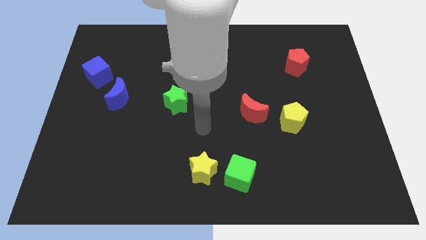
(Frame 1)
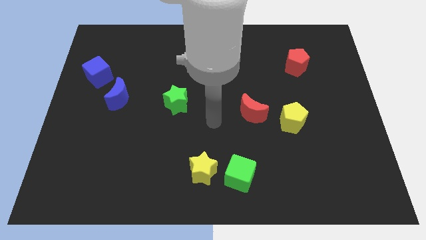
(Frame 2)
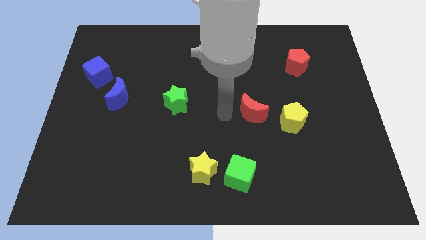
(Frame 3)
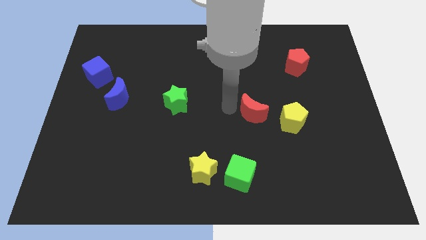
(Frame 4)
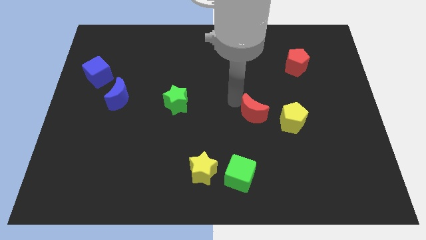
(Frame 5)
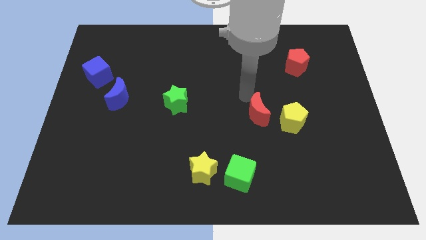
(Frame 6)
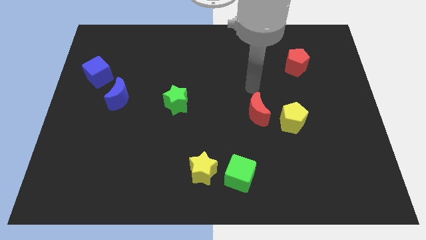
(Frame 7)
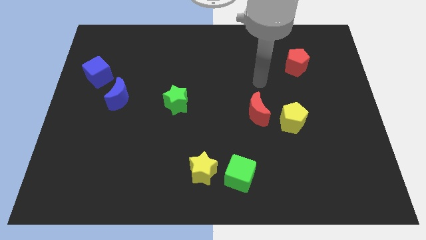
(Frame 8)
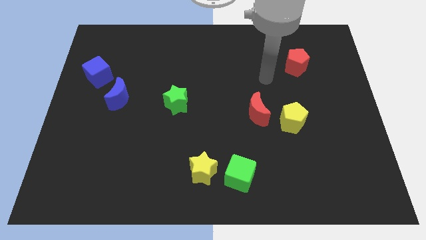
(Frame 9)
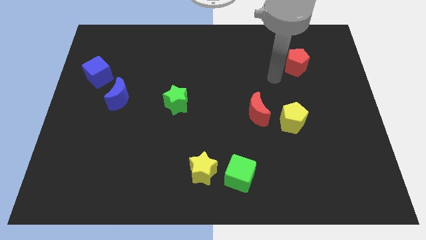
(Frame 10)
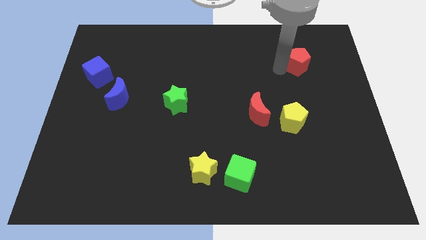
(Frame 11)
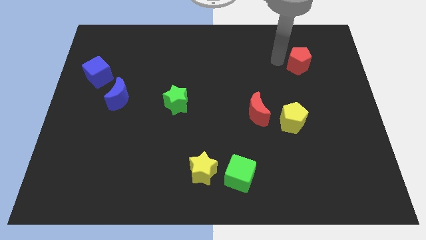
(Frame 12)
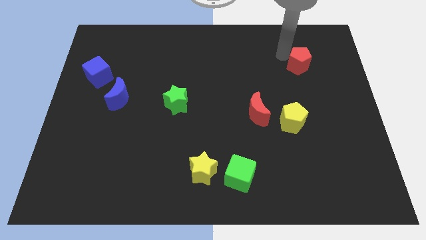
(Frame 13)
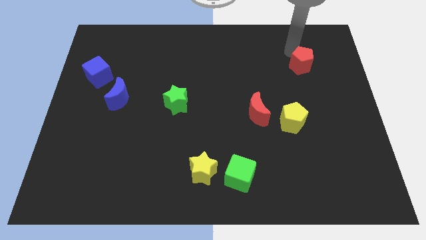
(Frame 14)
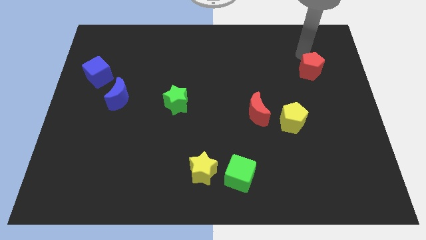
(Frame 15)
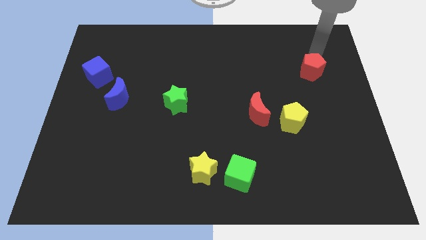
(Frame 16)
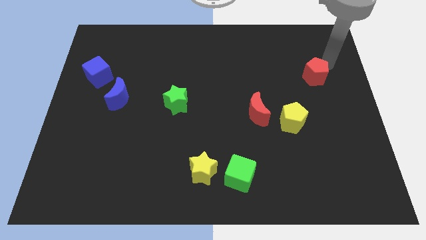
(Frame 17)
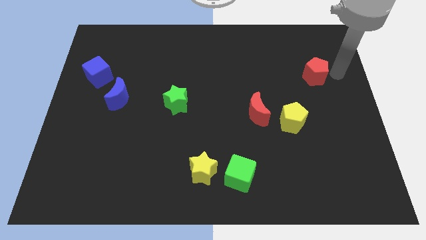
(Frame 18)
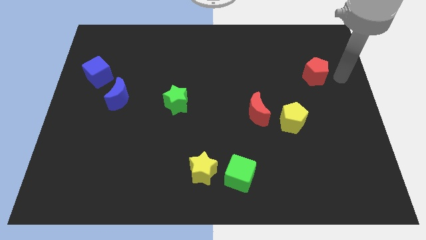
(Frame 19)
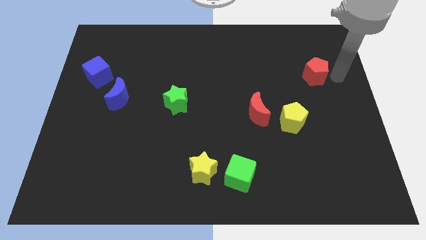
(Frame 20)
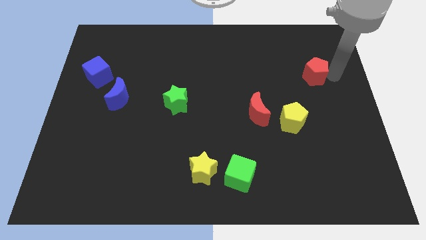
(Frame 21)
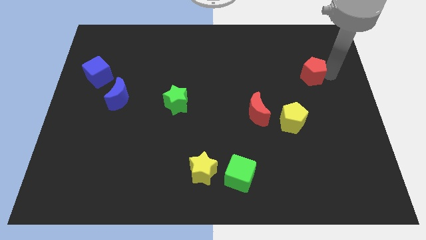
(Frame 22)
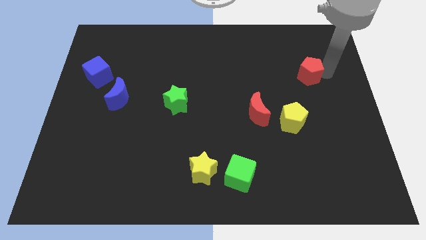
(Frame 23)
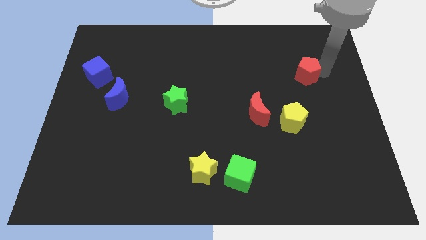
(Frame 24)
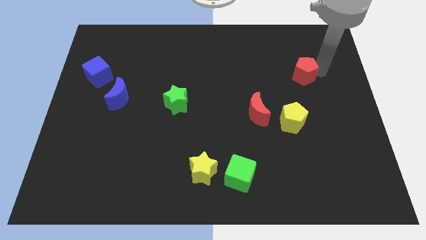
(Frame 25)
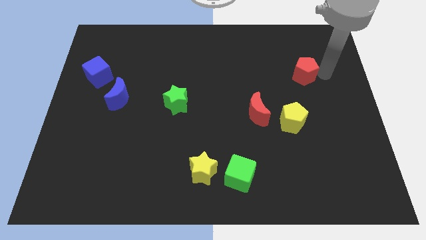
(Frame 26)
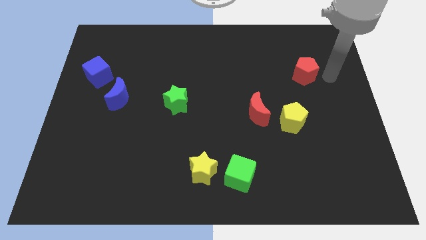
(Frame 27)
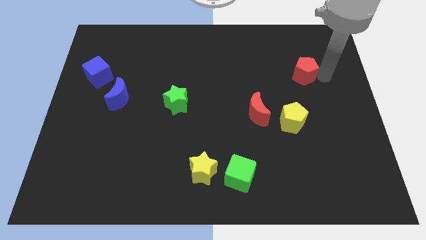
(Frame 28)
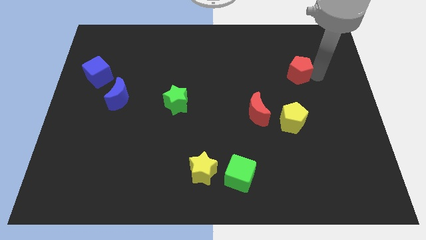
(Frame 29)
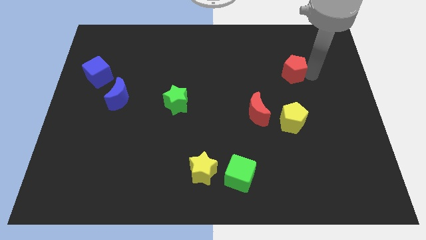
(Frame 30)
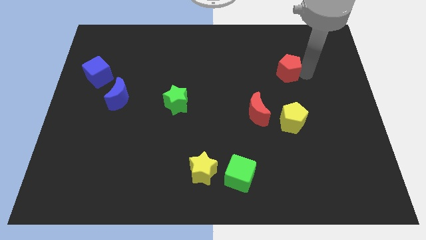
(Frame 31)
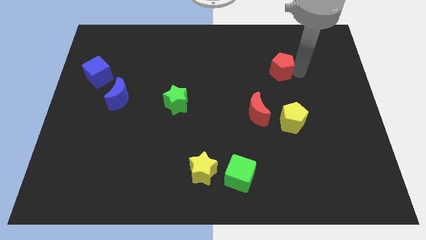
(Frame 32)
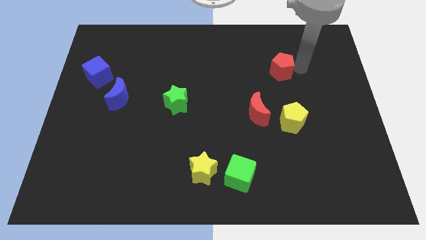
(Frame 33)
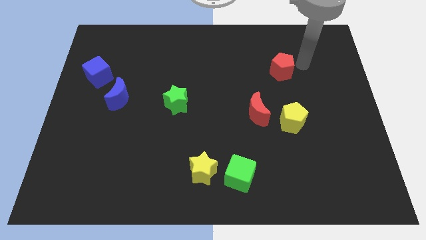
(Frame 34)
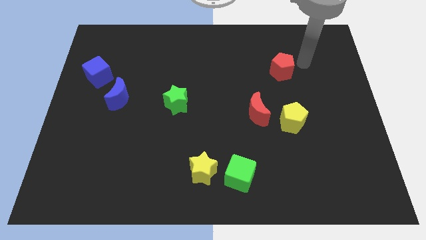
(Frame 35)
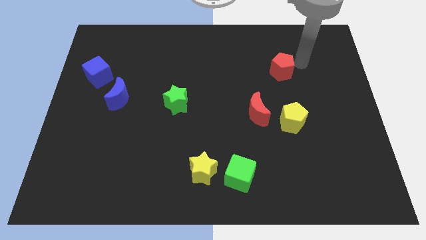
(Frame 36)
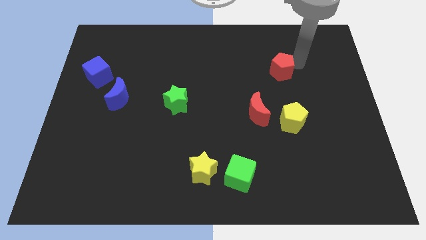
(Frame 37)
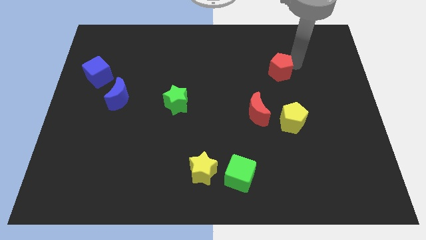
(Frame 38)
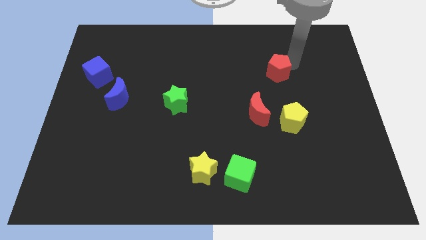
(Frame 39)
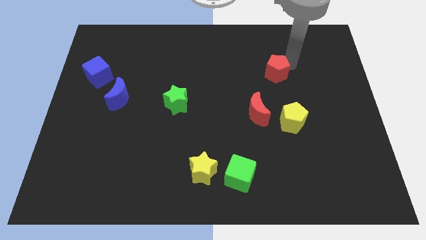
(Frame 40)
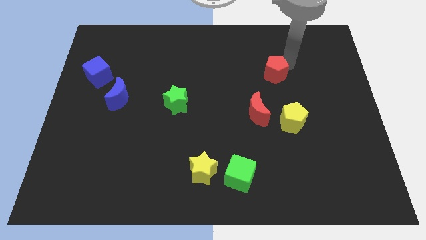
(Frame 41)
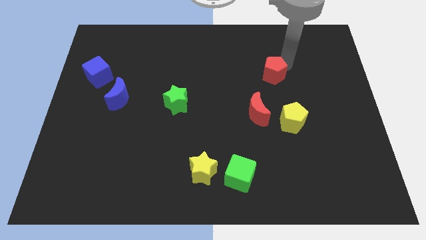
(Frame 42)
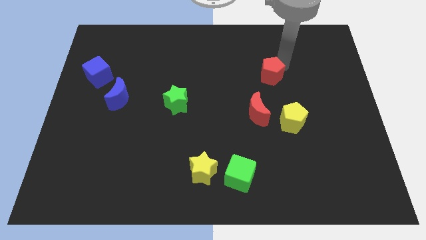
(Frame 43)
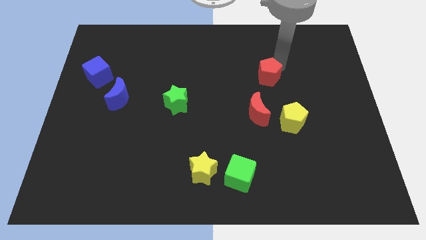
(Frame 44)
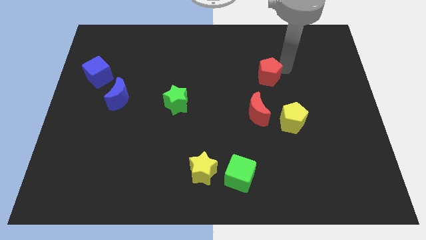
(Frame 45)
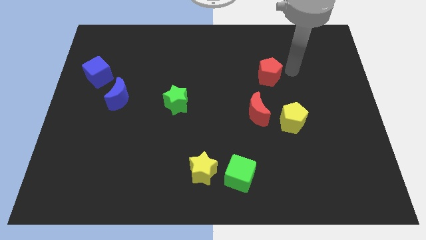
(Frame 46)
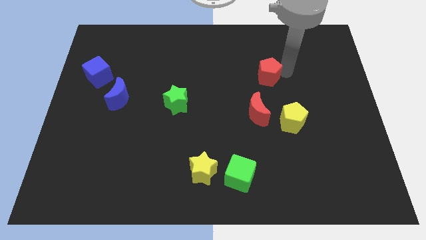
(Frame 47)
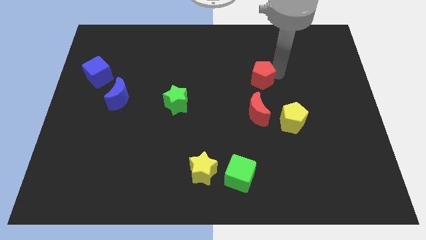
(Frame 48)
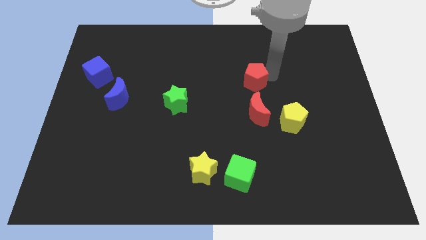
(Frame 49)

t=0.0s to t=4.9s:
put the red pentagon to the center
